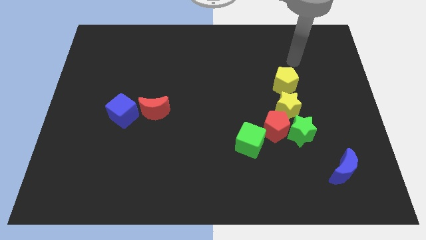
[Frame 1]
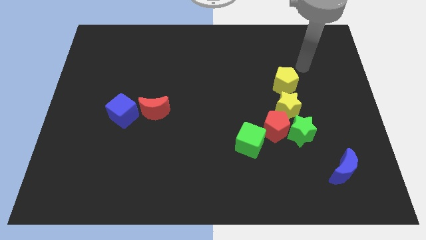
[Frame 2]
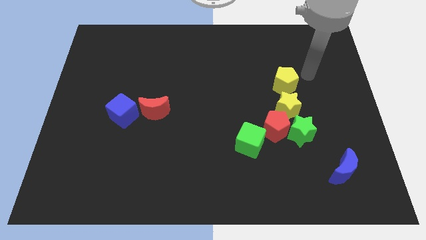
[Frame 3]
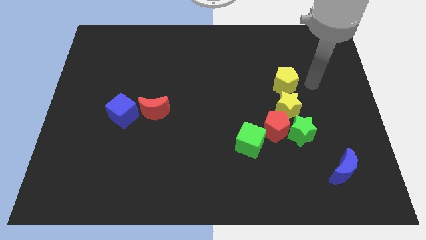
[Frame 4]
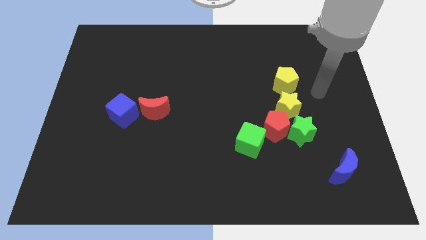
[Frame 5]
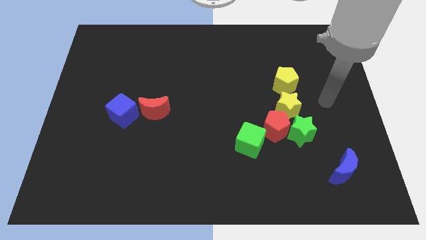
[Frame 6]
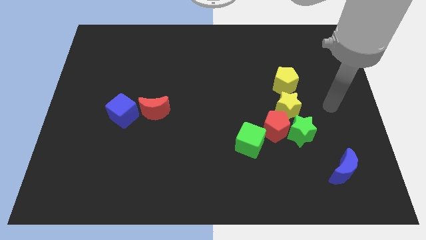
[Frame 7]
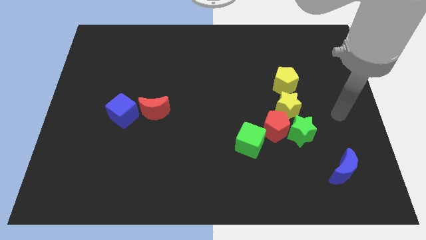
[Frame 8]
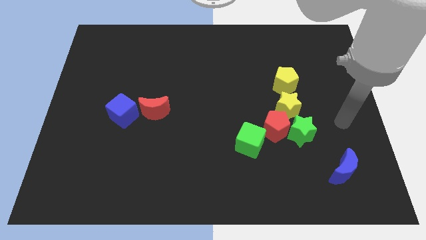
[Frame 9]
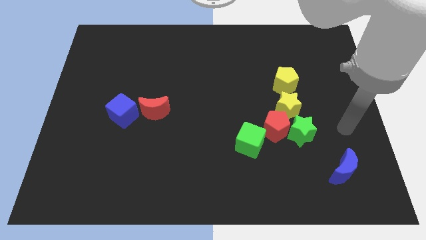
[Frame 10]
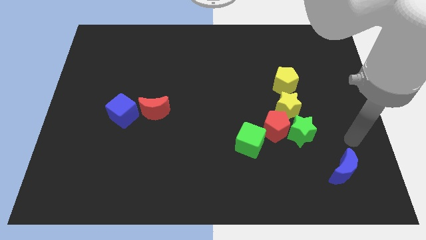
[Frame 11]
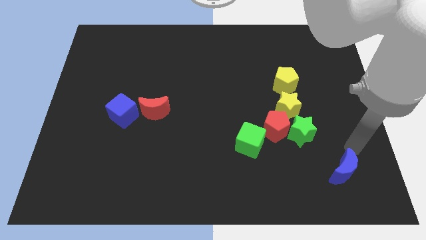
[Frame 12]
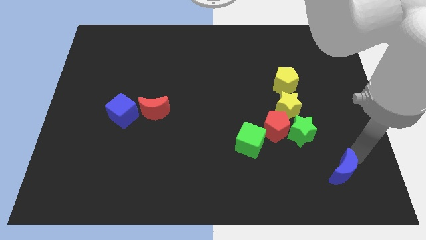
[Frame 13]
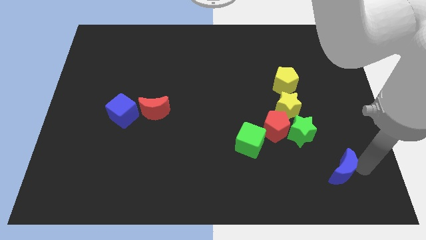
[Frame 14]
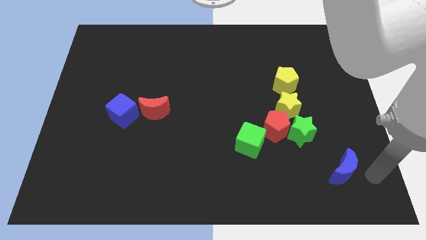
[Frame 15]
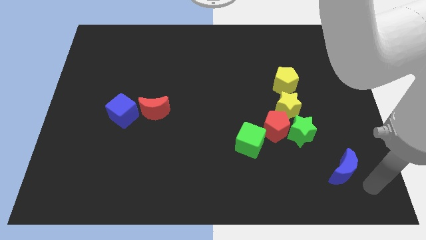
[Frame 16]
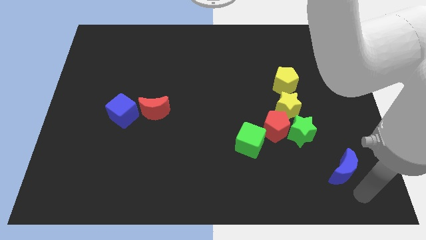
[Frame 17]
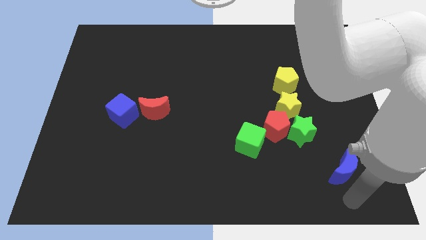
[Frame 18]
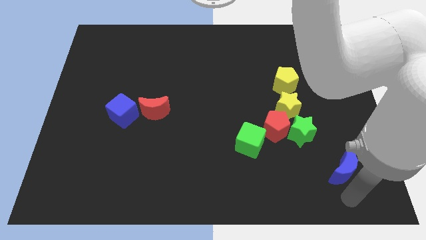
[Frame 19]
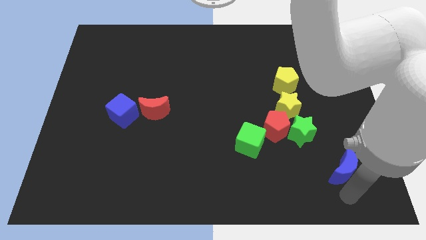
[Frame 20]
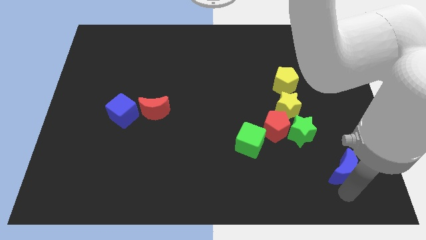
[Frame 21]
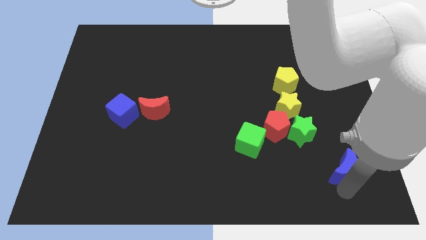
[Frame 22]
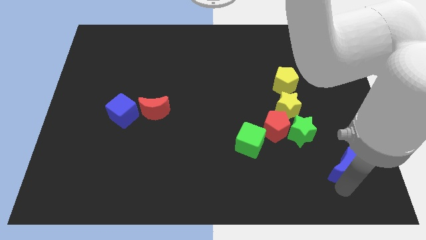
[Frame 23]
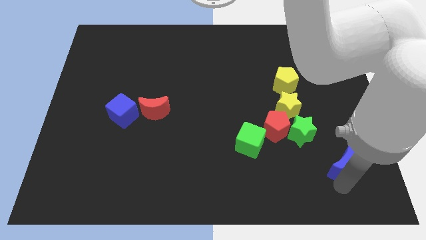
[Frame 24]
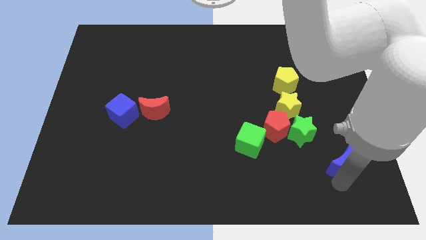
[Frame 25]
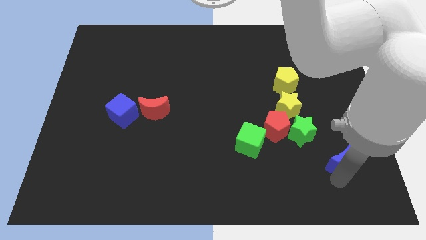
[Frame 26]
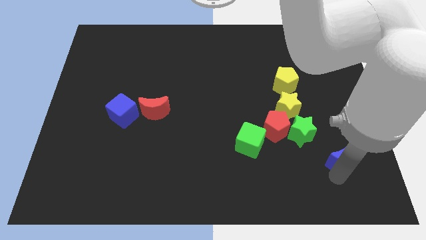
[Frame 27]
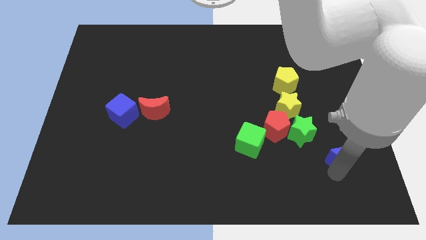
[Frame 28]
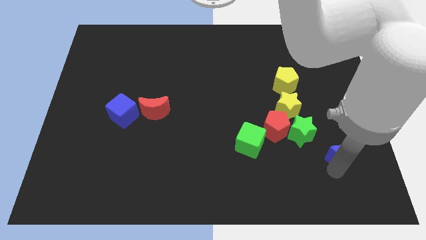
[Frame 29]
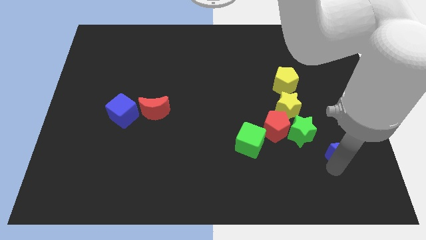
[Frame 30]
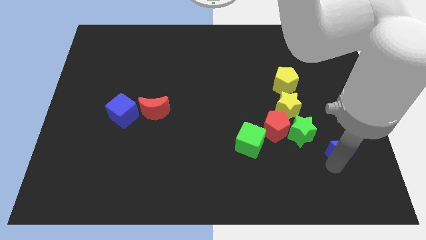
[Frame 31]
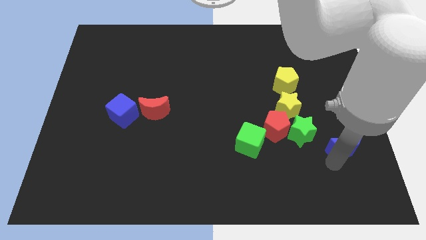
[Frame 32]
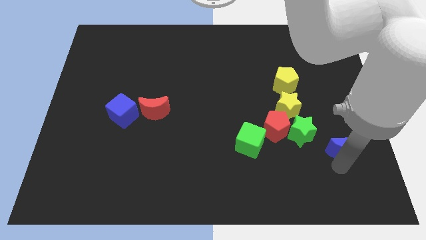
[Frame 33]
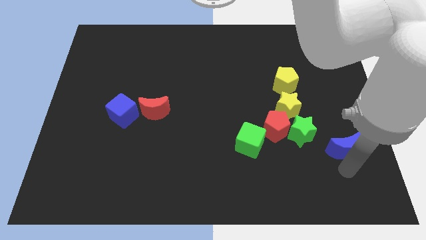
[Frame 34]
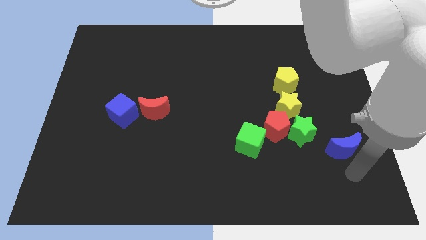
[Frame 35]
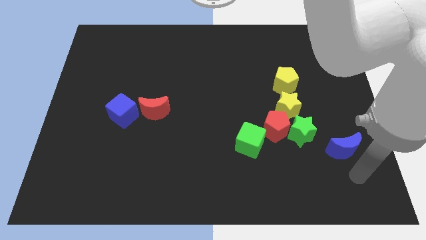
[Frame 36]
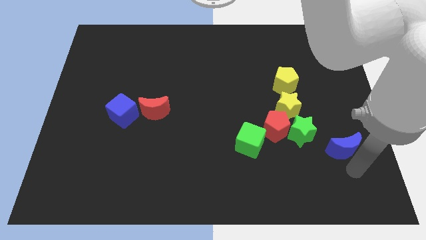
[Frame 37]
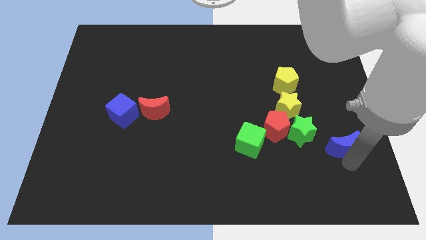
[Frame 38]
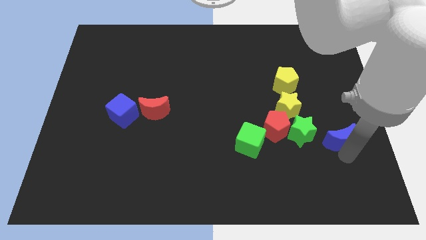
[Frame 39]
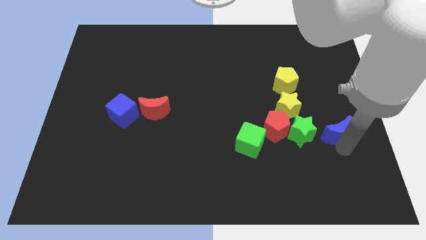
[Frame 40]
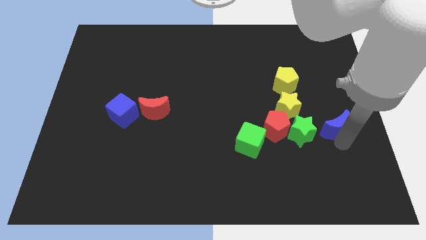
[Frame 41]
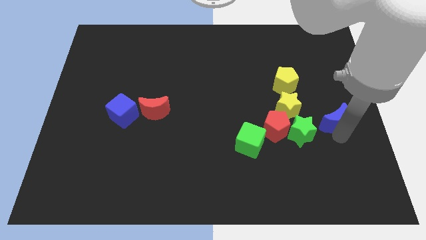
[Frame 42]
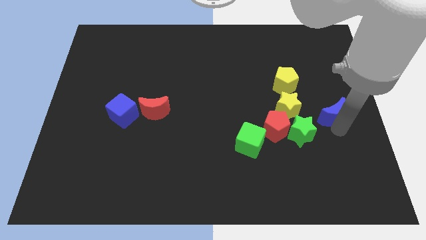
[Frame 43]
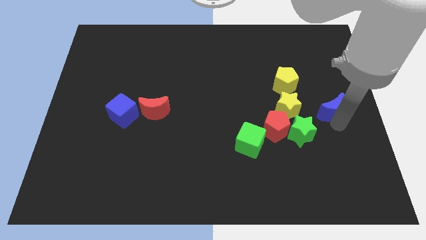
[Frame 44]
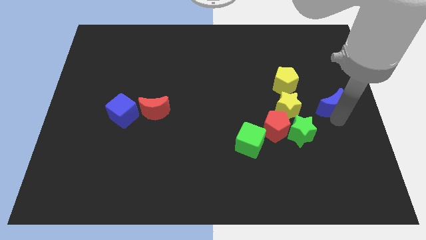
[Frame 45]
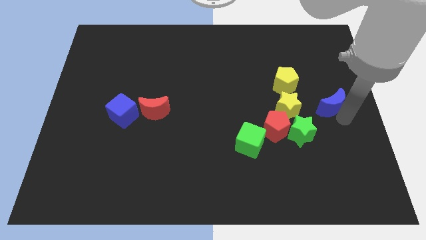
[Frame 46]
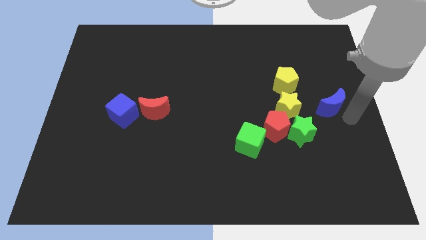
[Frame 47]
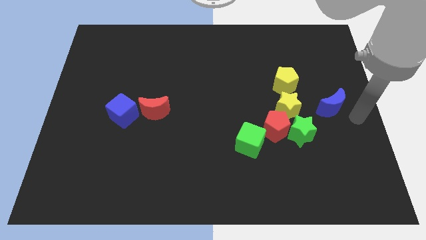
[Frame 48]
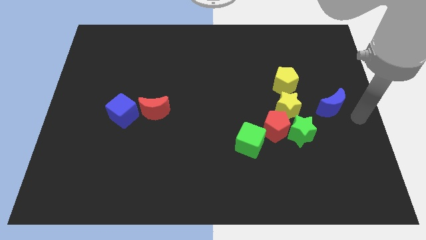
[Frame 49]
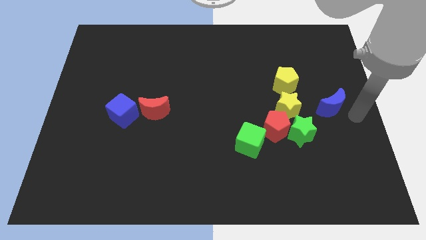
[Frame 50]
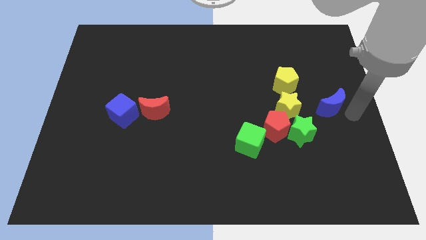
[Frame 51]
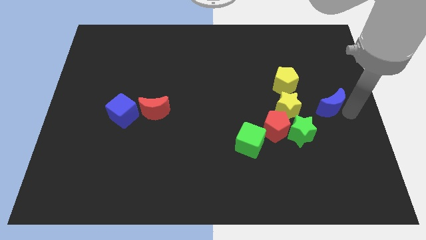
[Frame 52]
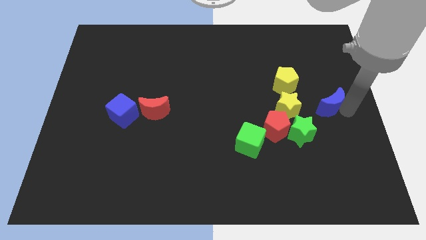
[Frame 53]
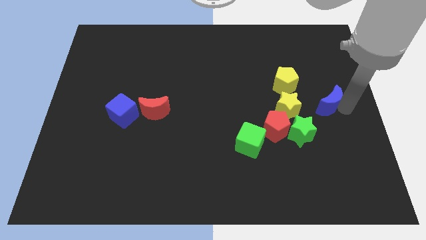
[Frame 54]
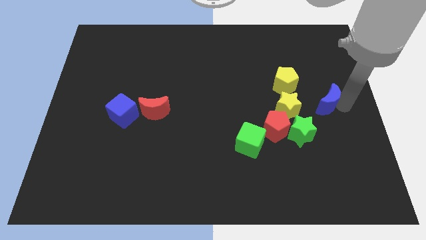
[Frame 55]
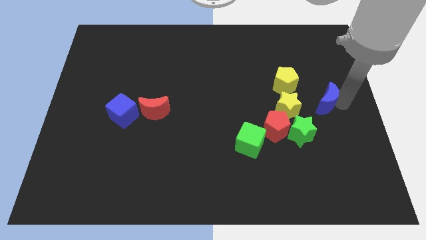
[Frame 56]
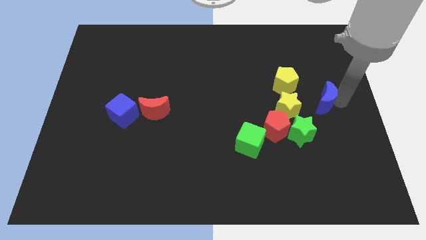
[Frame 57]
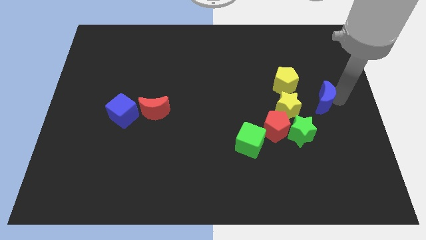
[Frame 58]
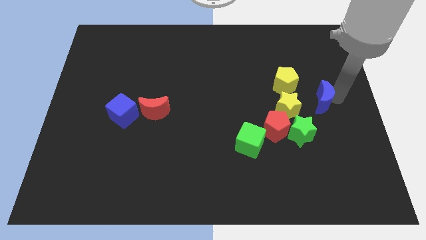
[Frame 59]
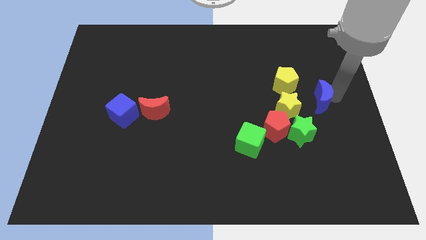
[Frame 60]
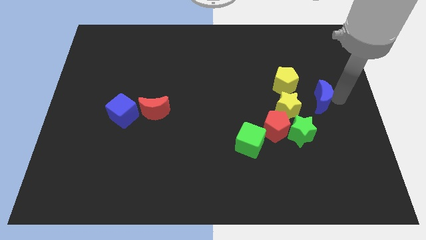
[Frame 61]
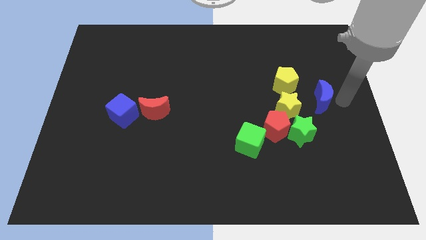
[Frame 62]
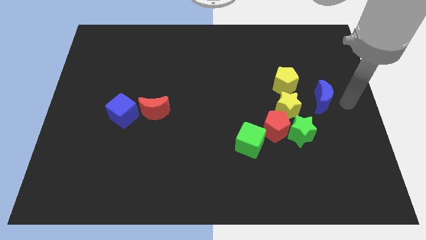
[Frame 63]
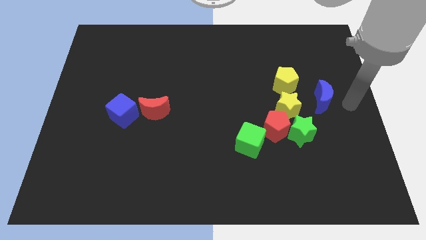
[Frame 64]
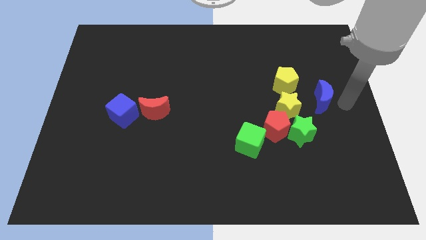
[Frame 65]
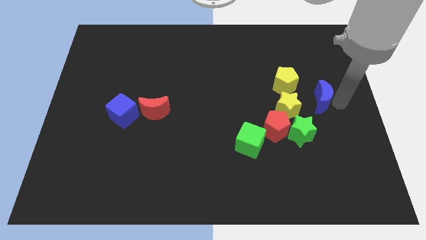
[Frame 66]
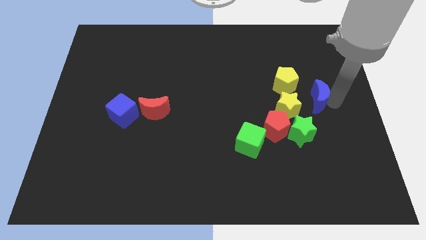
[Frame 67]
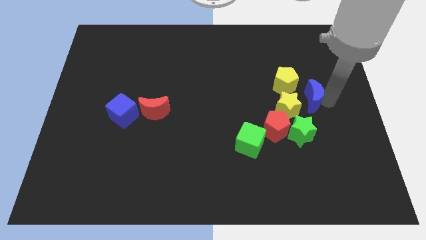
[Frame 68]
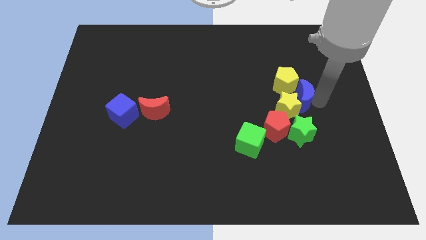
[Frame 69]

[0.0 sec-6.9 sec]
move the blue moon close to the yellow pentagon

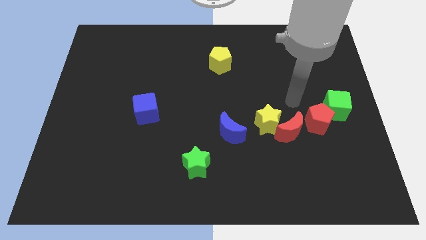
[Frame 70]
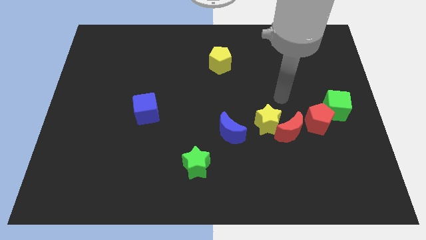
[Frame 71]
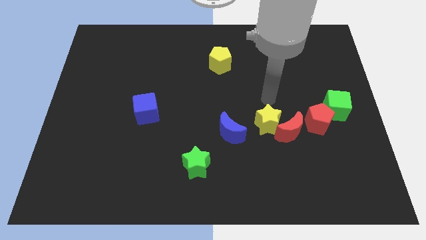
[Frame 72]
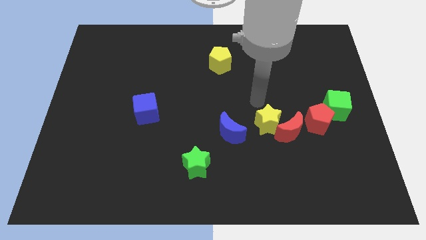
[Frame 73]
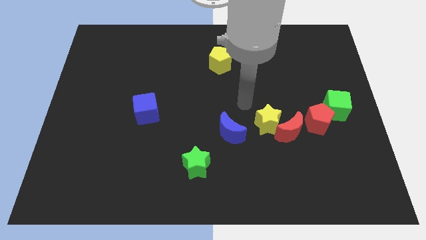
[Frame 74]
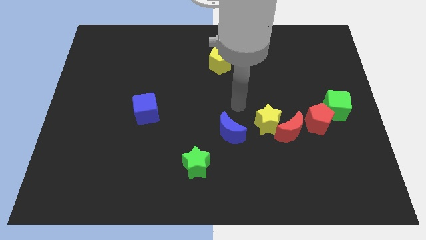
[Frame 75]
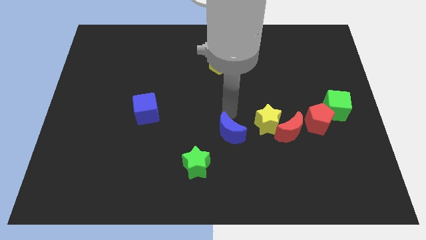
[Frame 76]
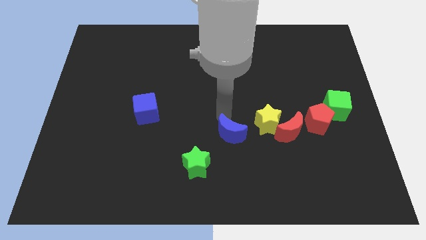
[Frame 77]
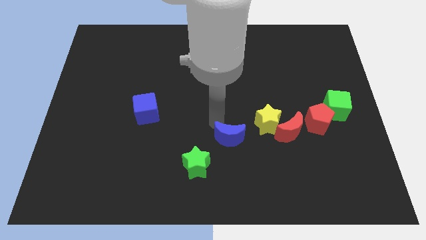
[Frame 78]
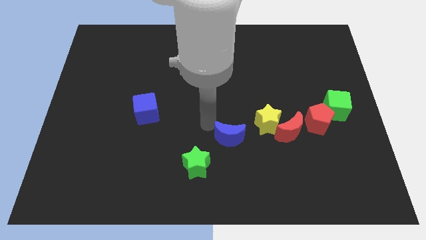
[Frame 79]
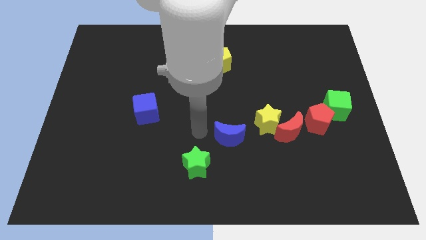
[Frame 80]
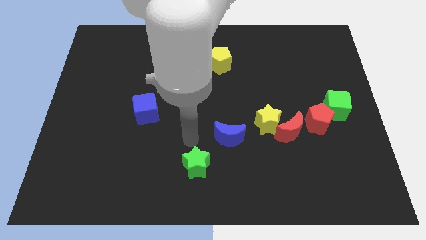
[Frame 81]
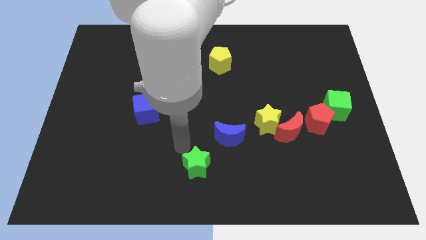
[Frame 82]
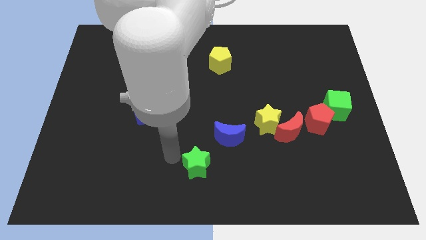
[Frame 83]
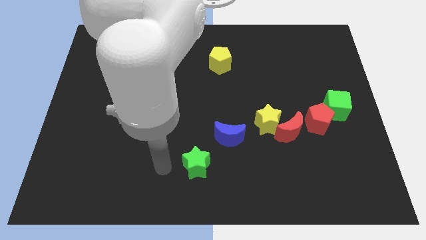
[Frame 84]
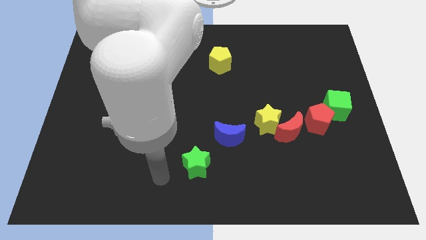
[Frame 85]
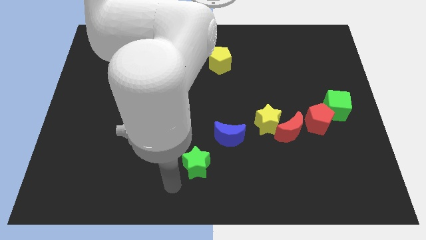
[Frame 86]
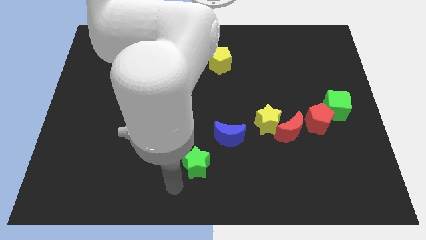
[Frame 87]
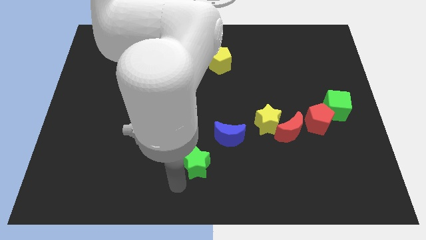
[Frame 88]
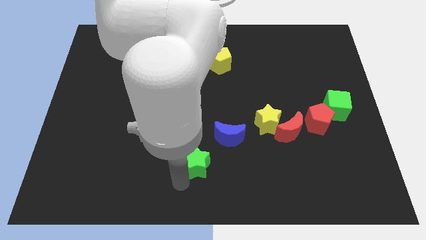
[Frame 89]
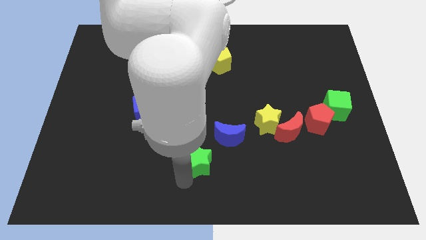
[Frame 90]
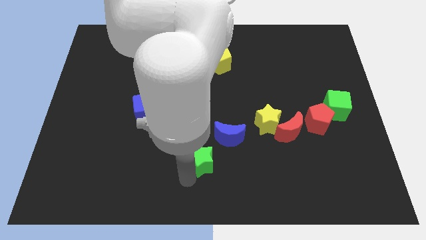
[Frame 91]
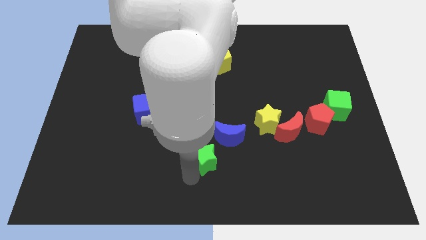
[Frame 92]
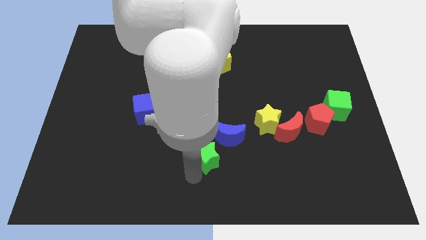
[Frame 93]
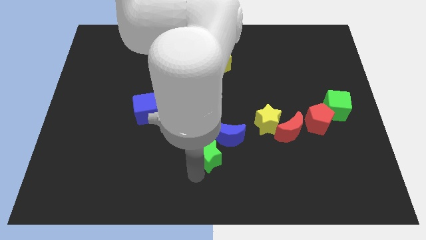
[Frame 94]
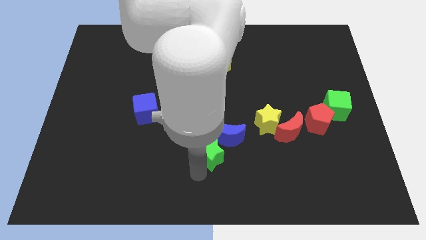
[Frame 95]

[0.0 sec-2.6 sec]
put the green star towards the blue moon
